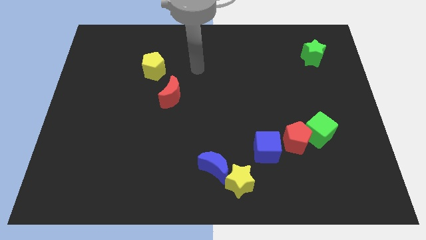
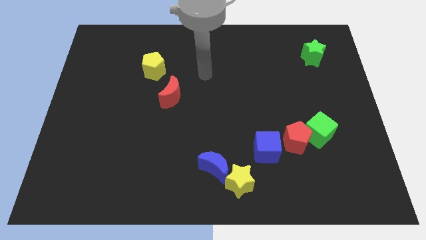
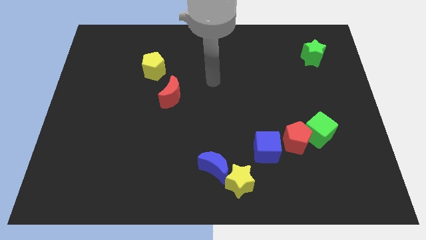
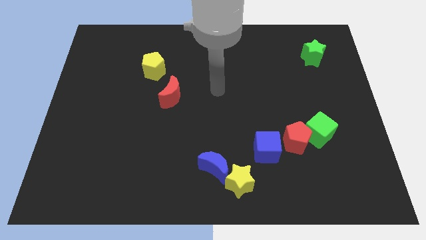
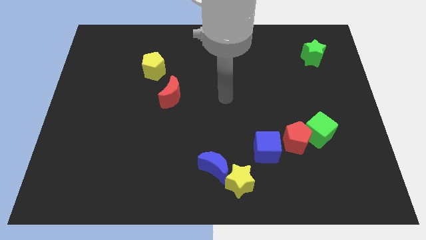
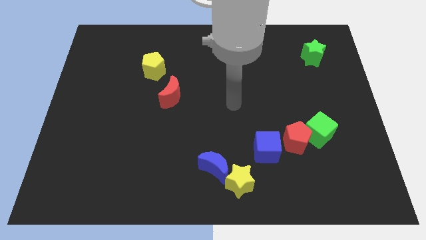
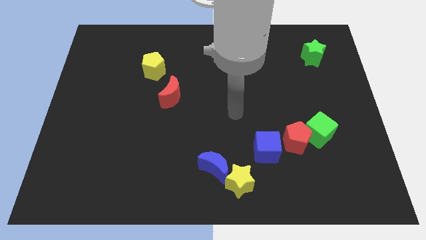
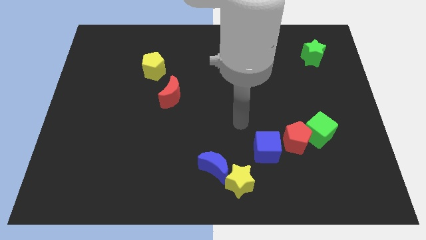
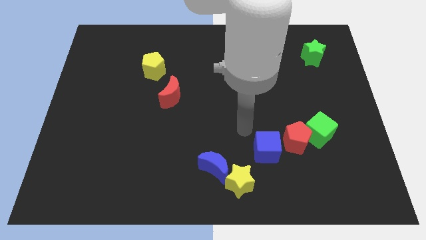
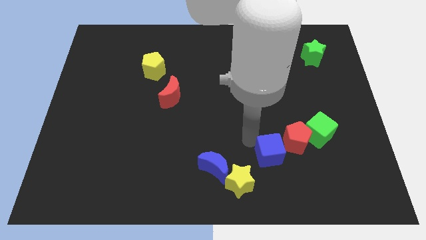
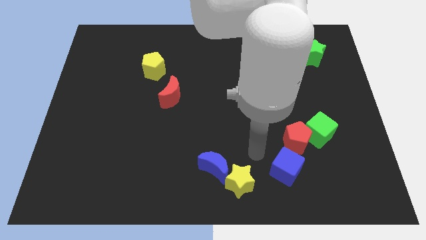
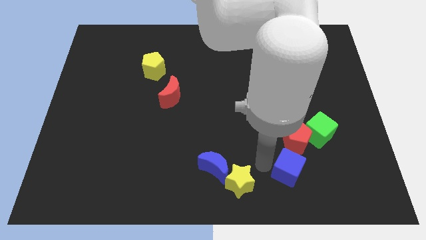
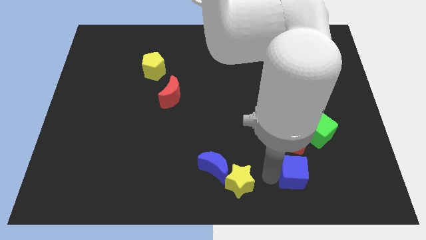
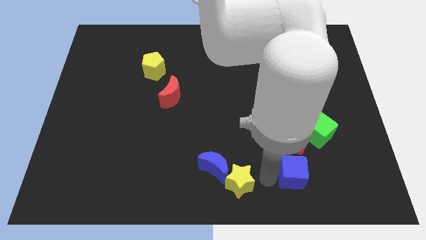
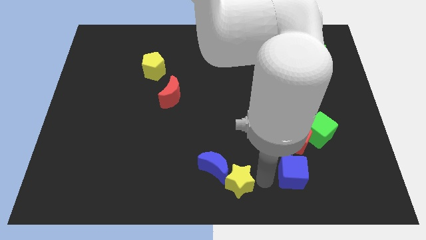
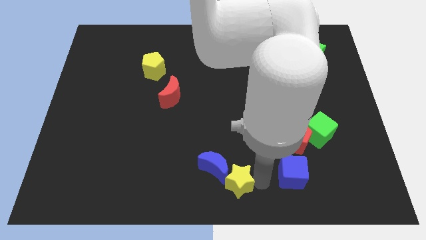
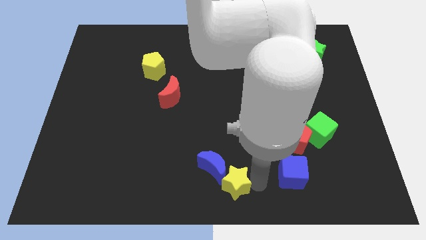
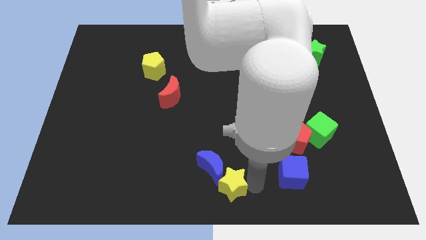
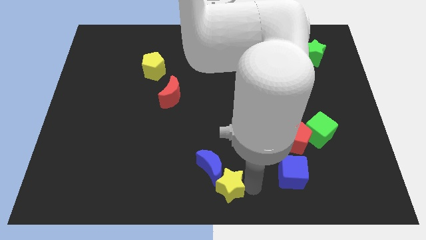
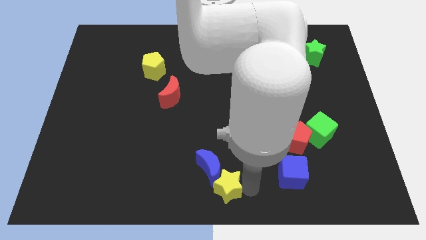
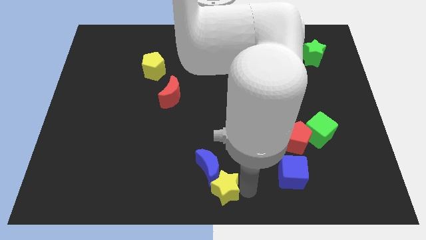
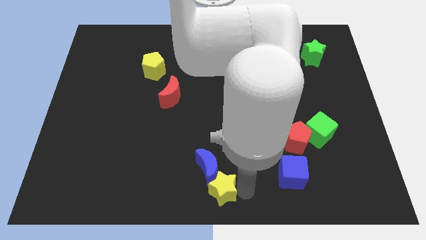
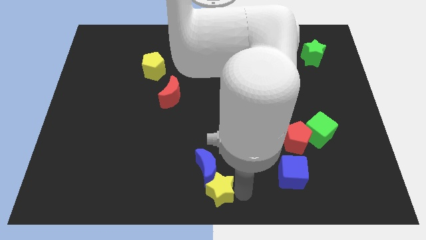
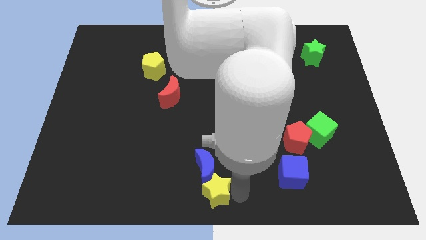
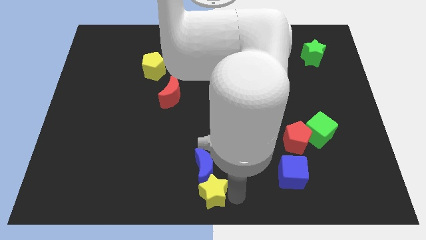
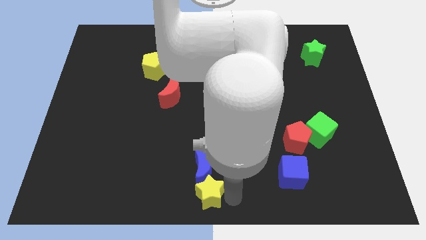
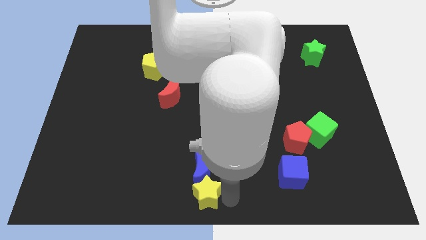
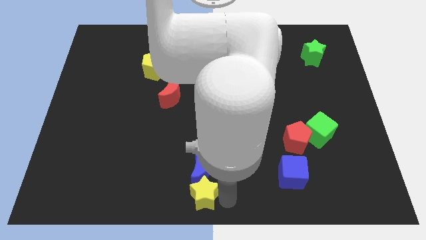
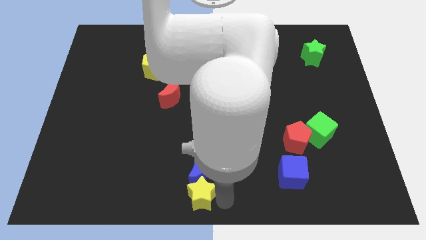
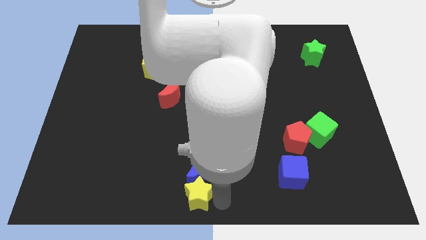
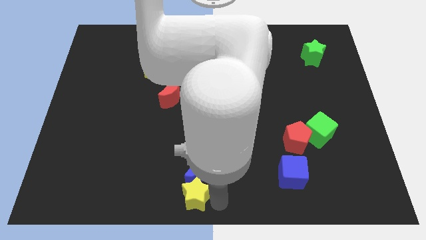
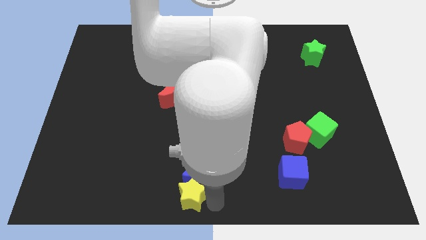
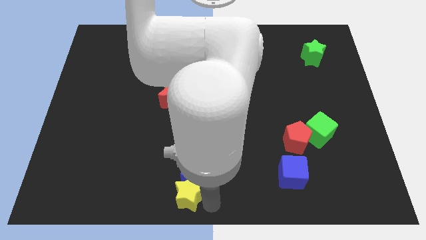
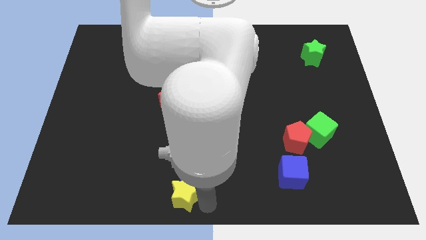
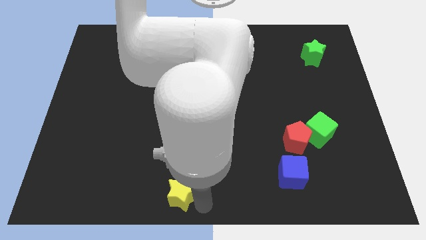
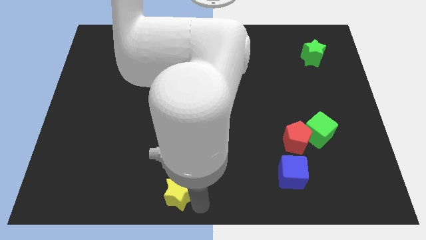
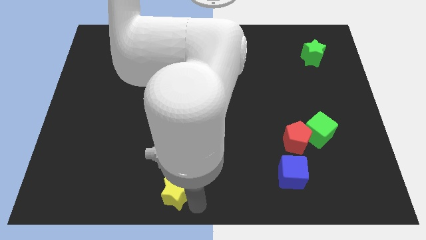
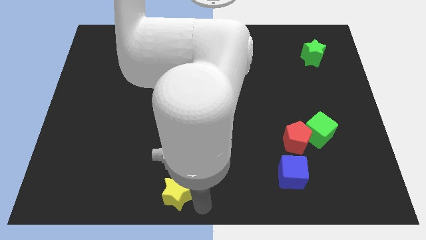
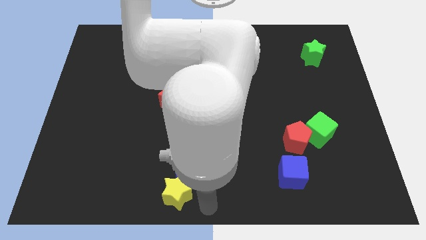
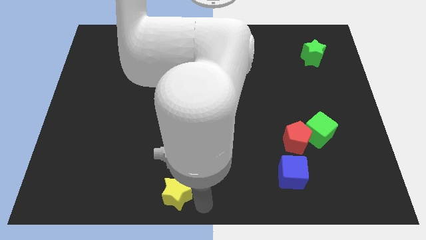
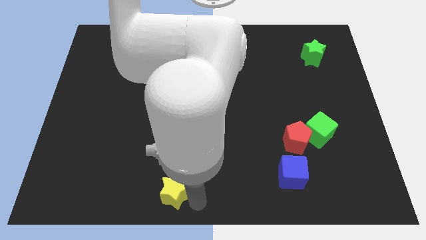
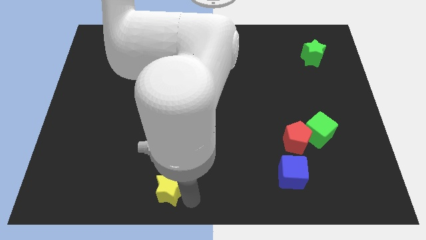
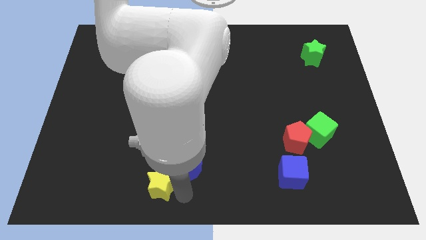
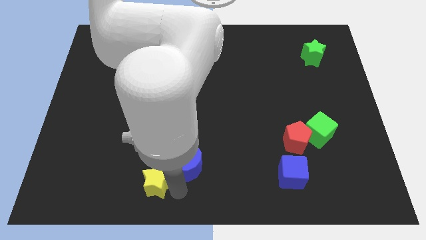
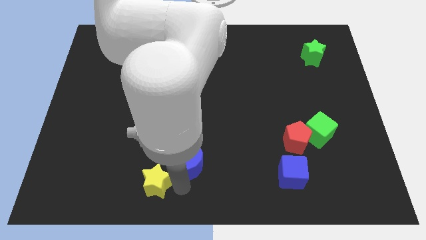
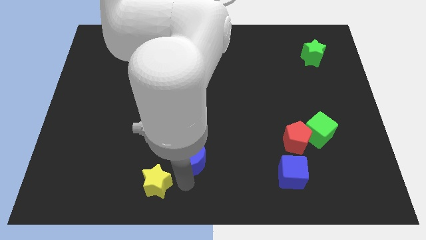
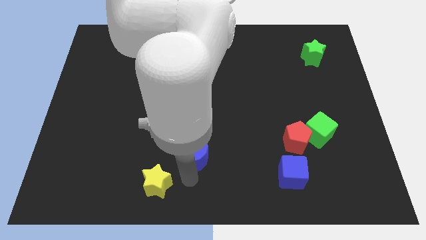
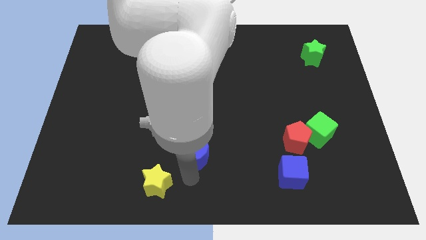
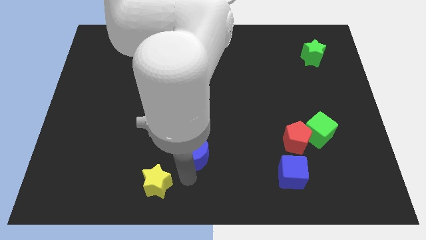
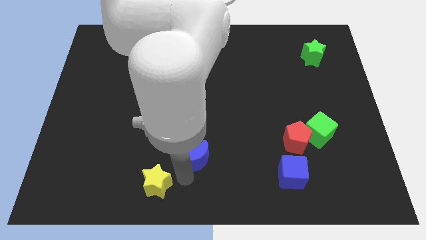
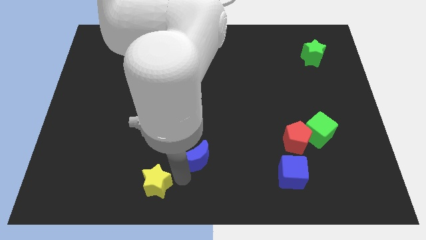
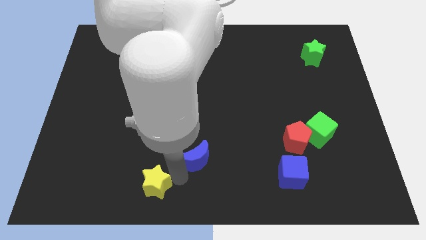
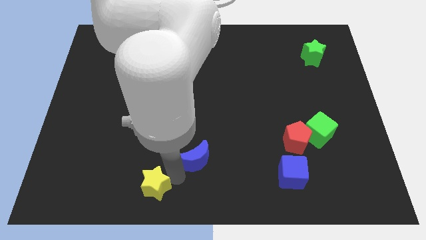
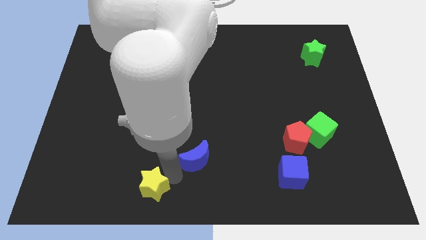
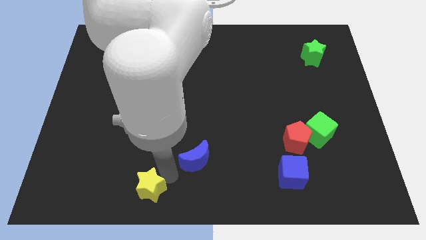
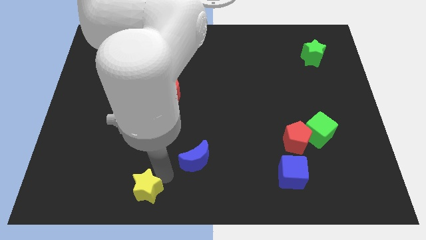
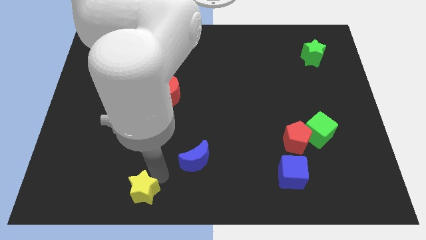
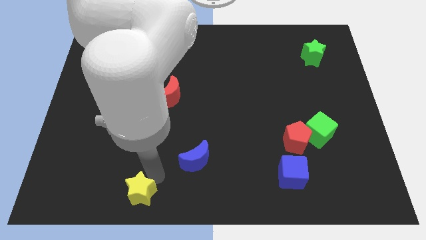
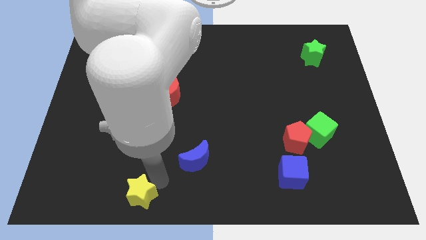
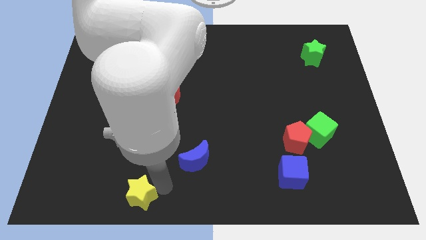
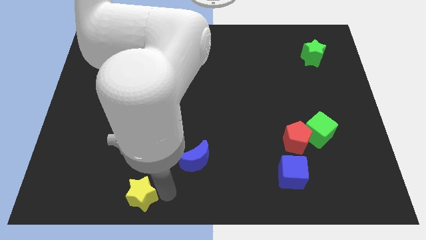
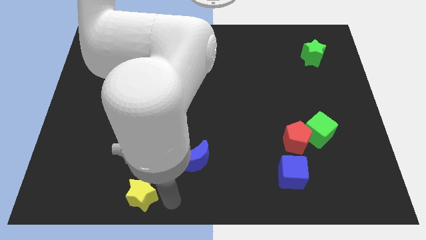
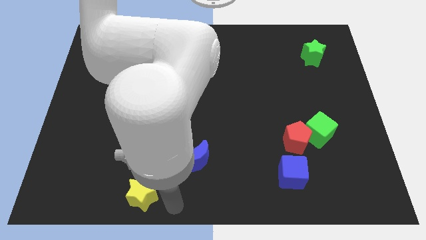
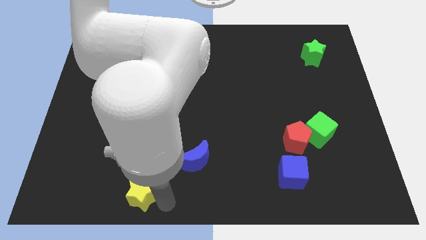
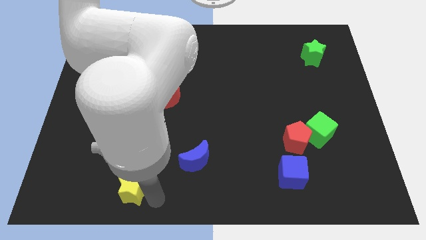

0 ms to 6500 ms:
slide the yellow star left

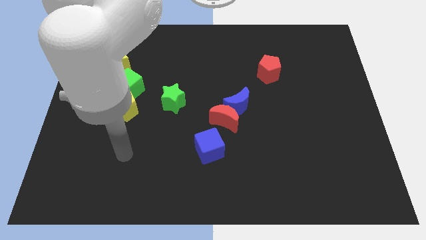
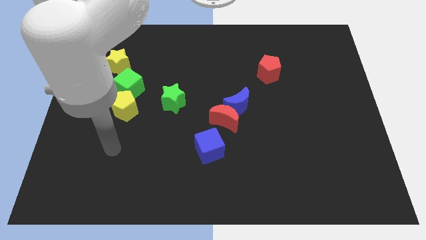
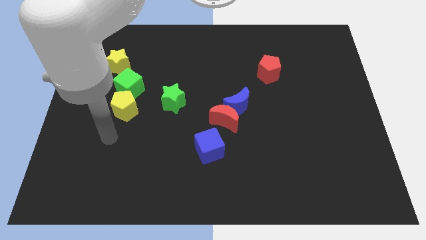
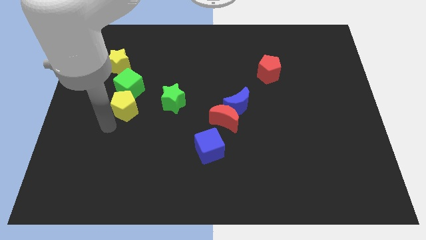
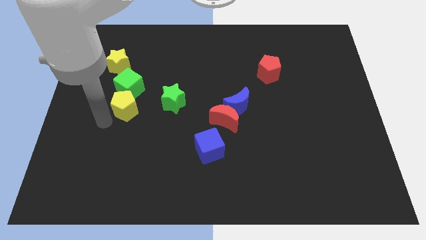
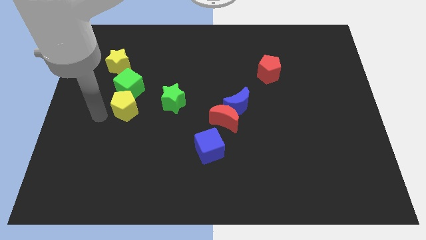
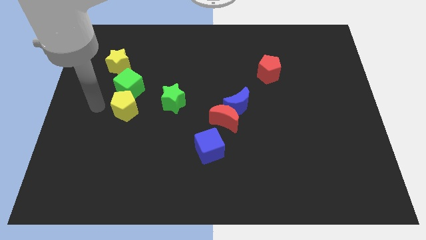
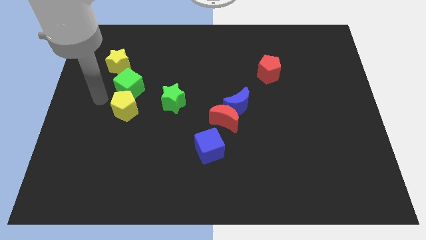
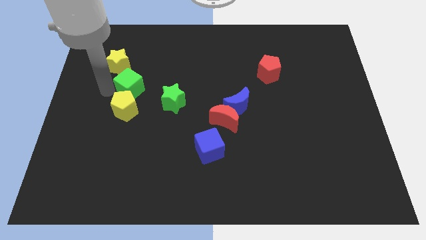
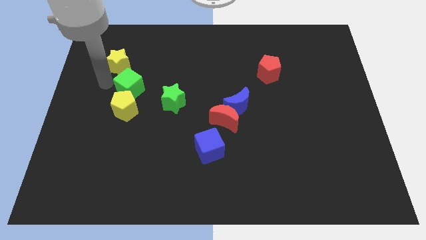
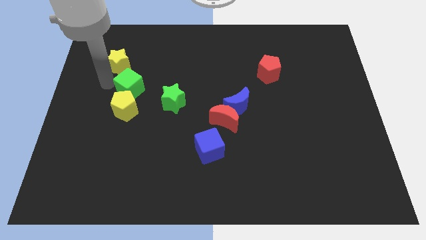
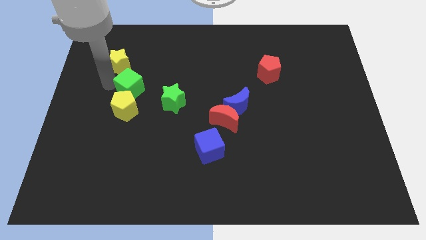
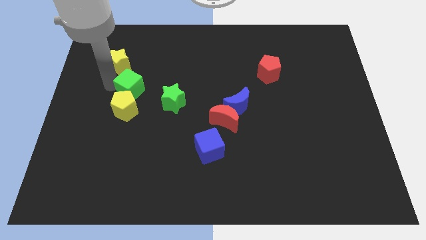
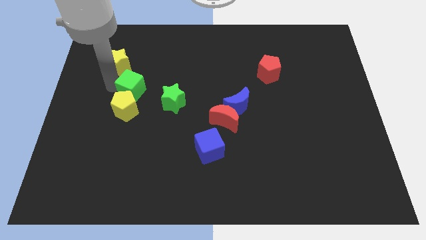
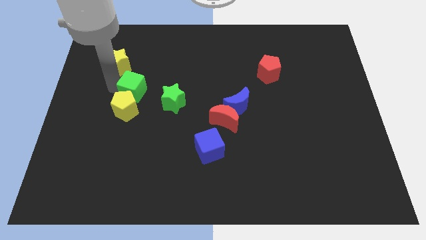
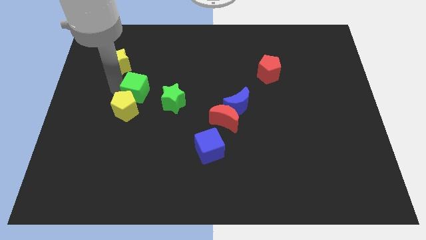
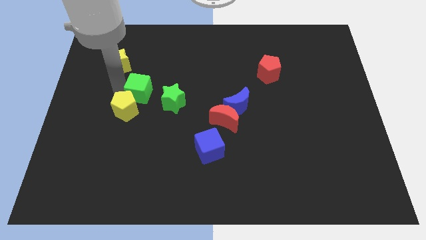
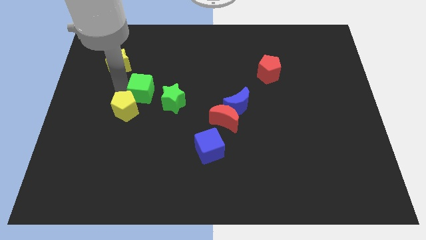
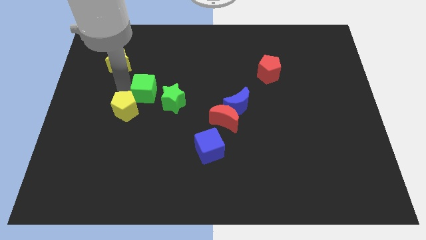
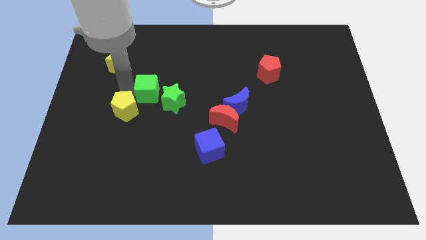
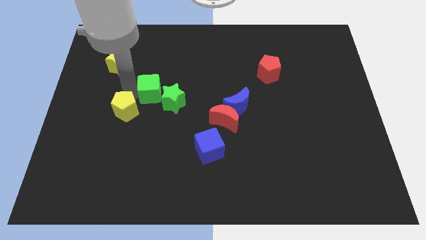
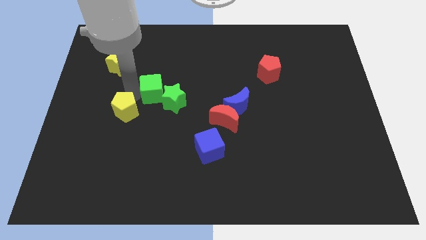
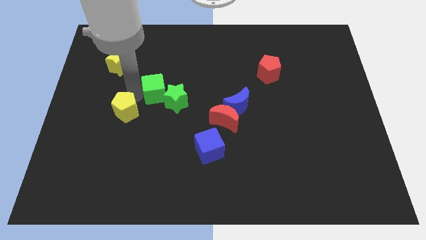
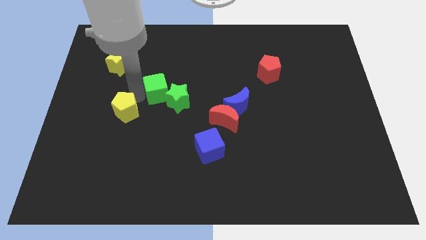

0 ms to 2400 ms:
move the green cube to the right a little bit
